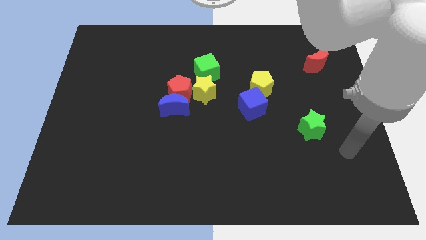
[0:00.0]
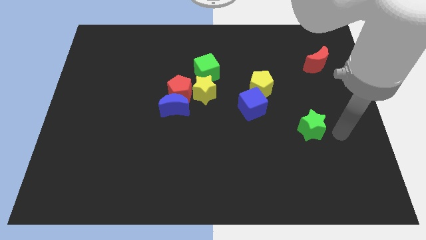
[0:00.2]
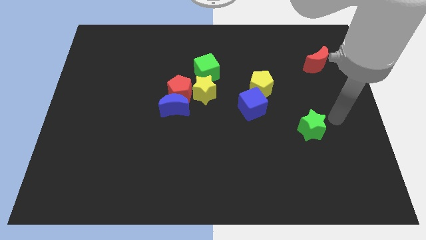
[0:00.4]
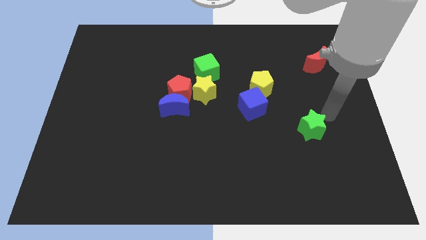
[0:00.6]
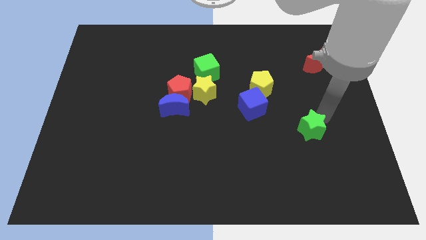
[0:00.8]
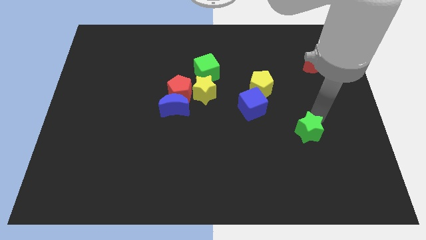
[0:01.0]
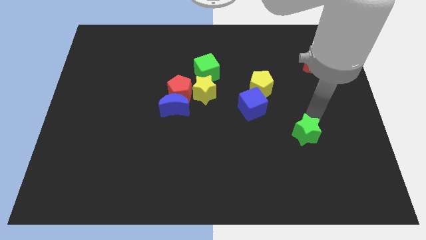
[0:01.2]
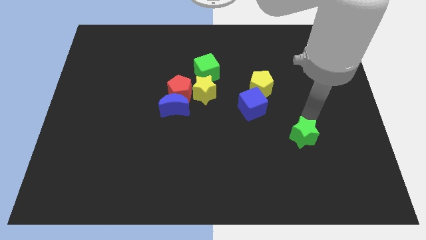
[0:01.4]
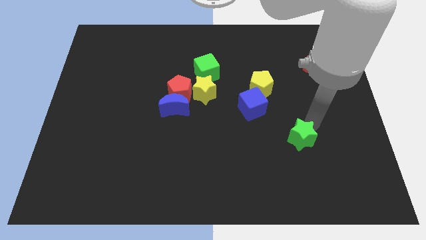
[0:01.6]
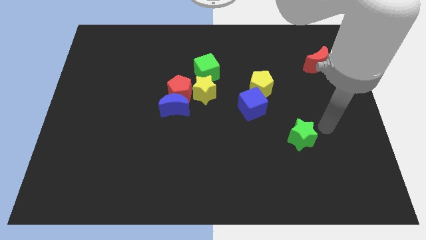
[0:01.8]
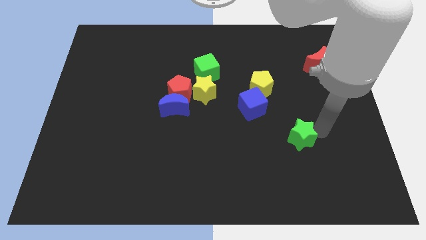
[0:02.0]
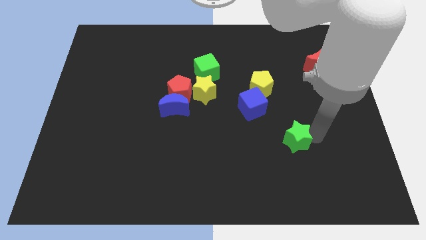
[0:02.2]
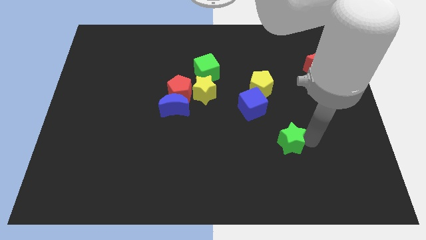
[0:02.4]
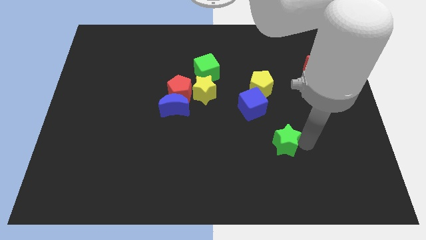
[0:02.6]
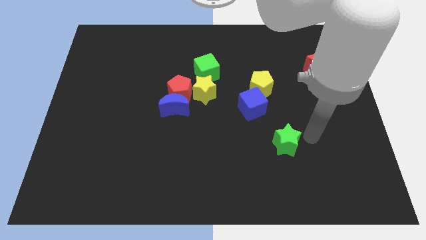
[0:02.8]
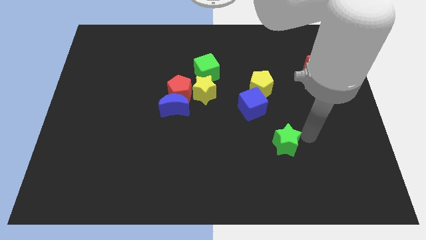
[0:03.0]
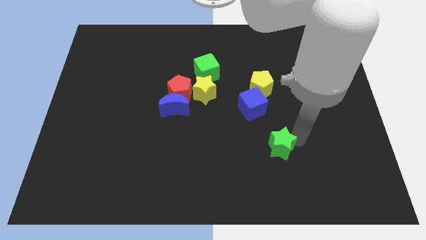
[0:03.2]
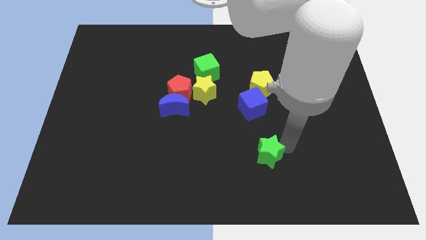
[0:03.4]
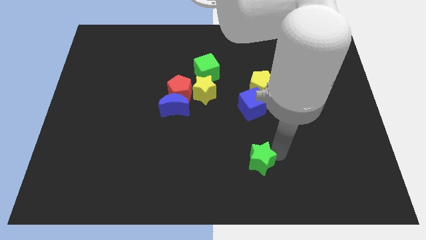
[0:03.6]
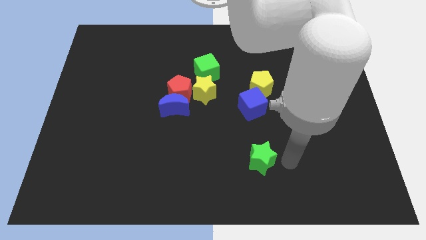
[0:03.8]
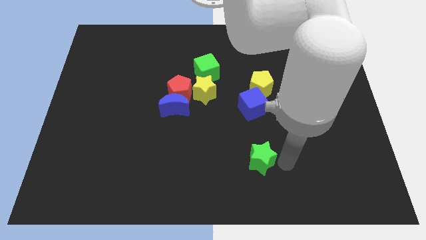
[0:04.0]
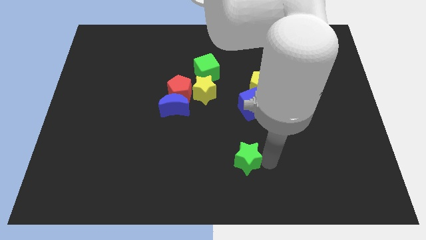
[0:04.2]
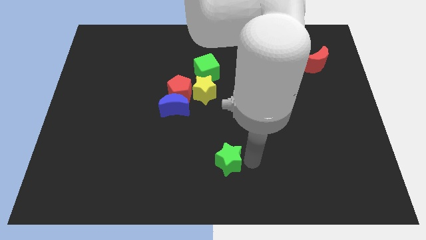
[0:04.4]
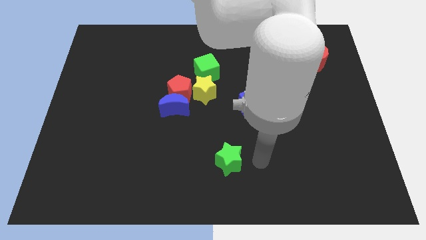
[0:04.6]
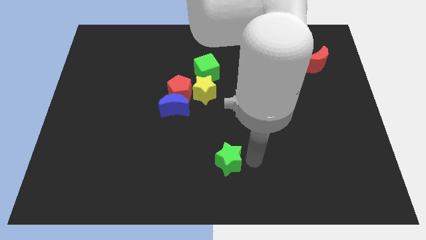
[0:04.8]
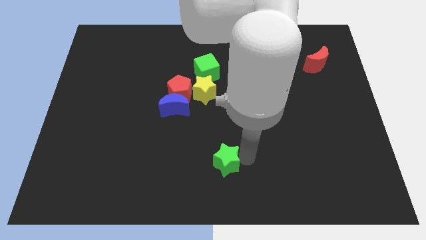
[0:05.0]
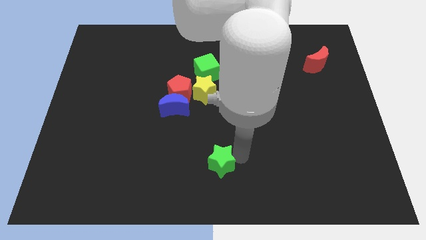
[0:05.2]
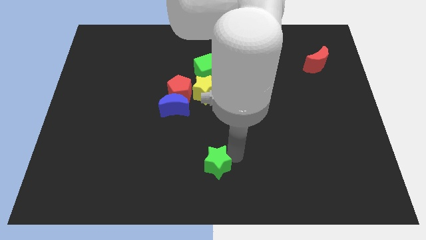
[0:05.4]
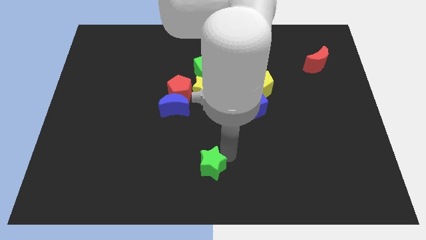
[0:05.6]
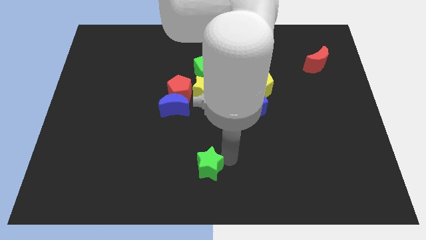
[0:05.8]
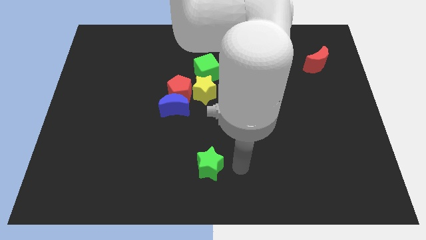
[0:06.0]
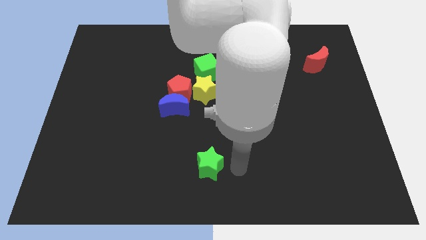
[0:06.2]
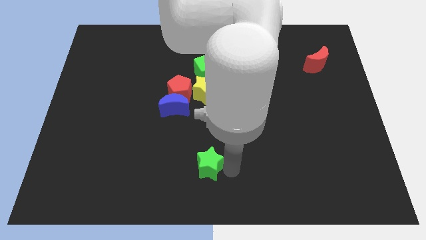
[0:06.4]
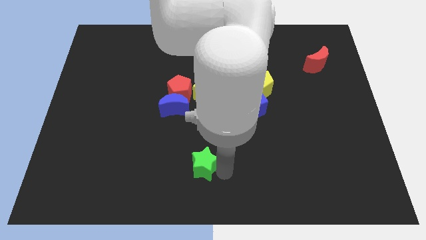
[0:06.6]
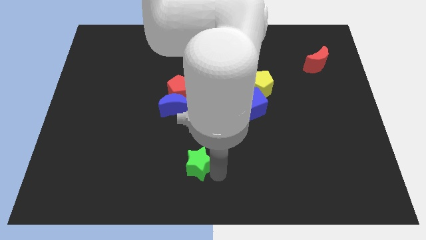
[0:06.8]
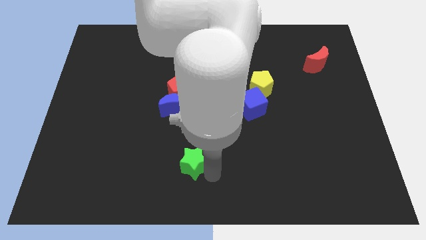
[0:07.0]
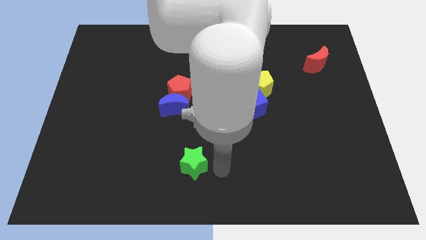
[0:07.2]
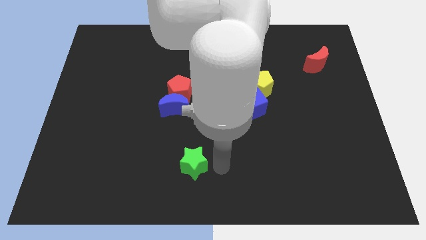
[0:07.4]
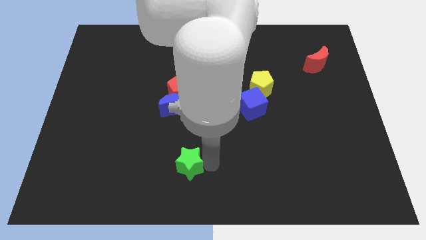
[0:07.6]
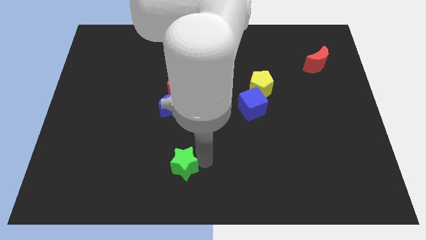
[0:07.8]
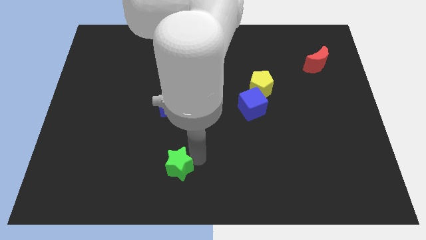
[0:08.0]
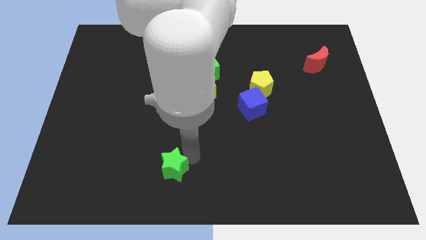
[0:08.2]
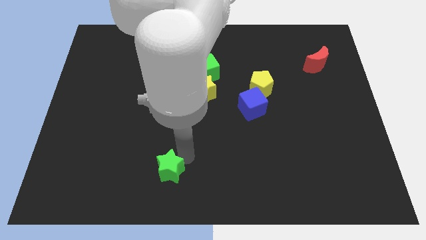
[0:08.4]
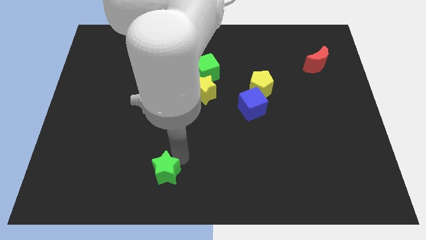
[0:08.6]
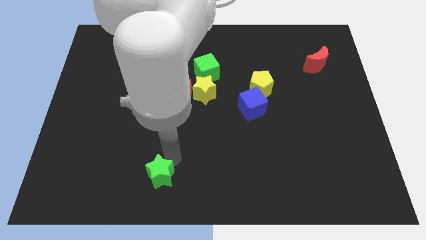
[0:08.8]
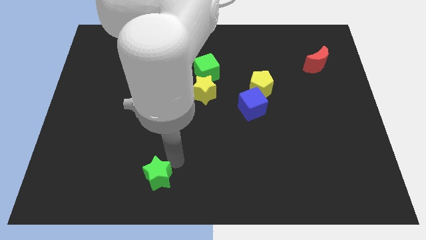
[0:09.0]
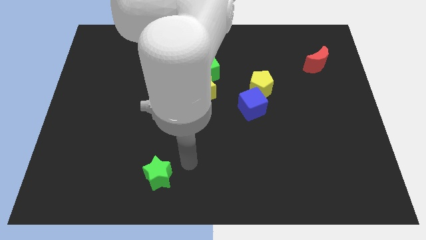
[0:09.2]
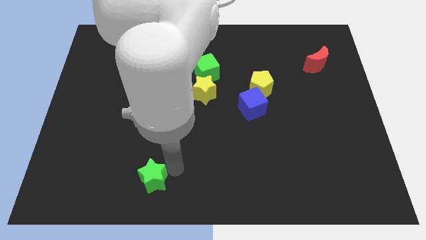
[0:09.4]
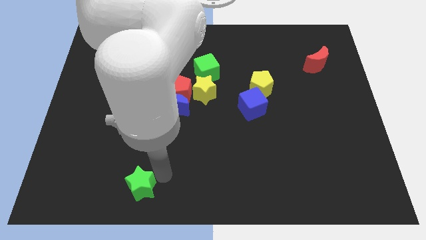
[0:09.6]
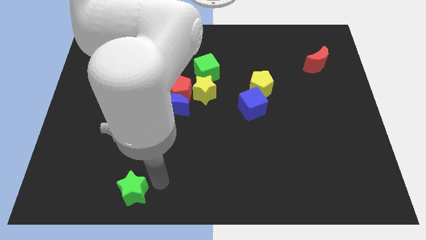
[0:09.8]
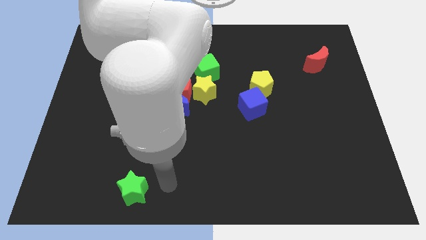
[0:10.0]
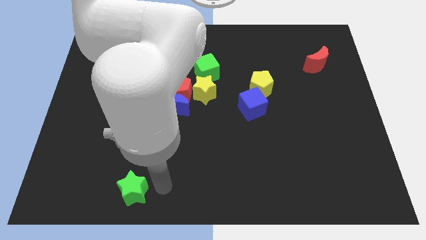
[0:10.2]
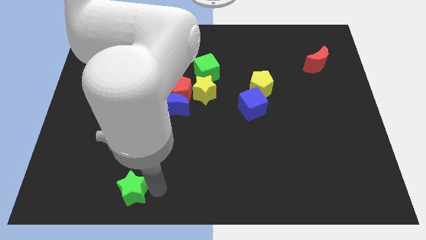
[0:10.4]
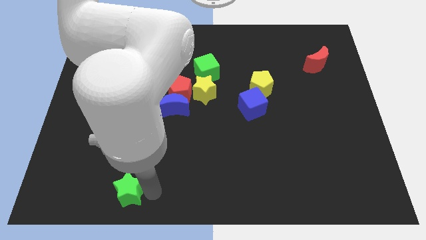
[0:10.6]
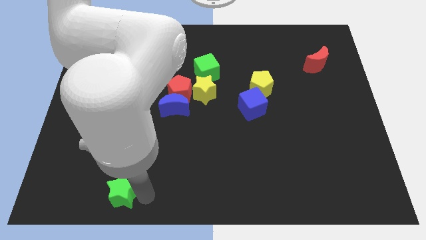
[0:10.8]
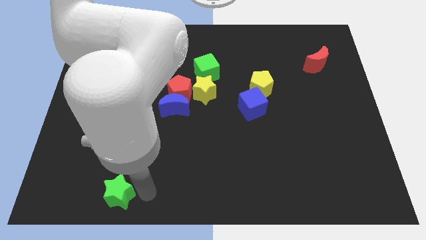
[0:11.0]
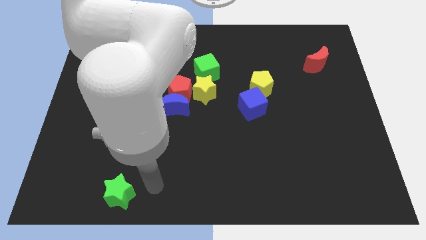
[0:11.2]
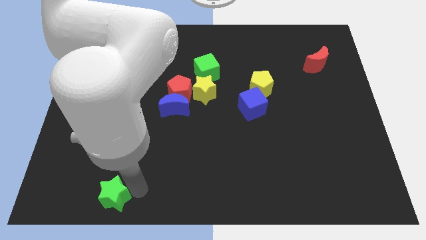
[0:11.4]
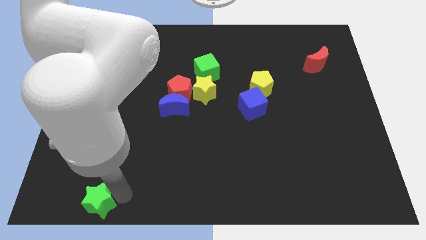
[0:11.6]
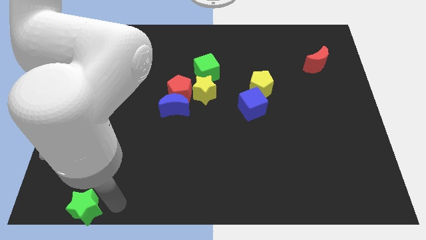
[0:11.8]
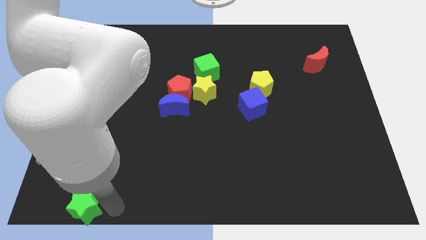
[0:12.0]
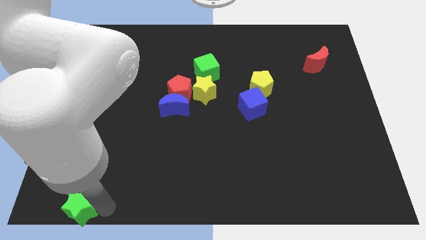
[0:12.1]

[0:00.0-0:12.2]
move the green star to the lower left corner
